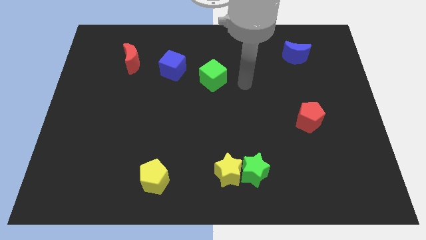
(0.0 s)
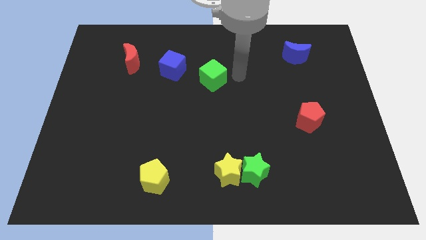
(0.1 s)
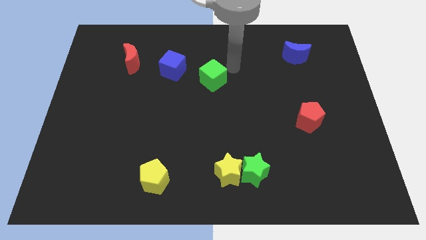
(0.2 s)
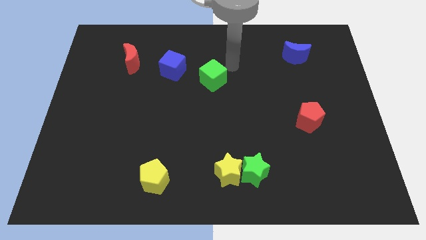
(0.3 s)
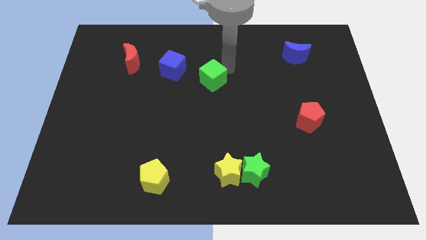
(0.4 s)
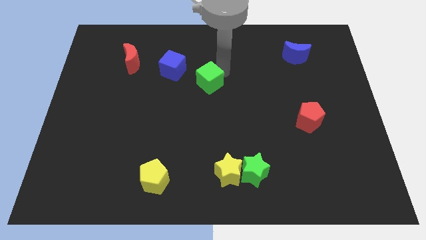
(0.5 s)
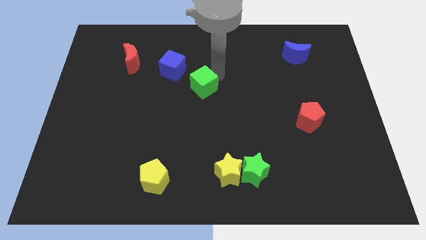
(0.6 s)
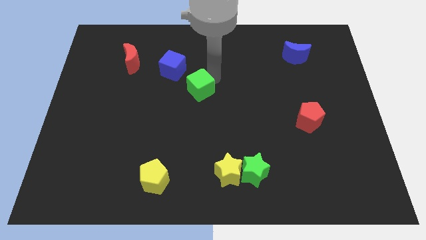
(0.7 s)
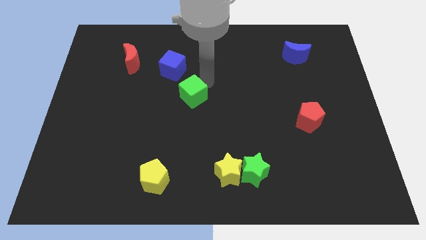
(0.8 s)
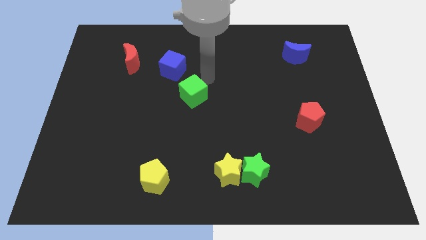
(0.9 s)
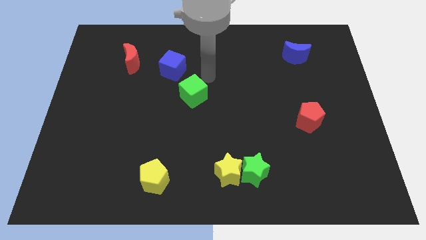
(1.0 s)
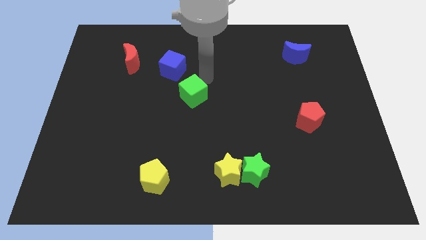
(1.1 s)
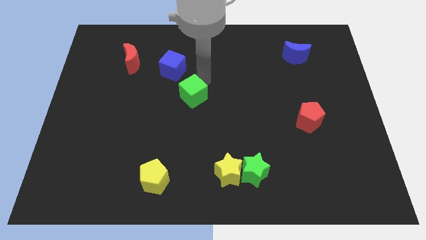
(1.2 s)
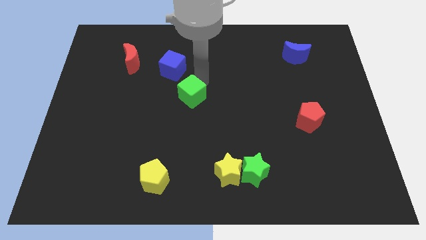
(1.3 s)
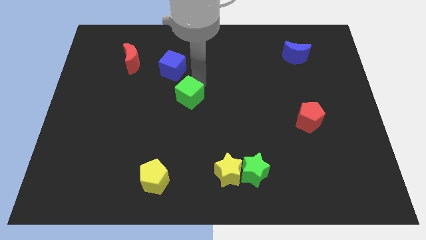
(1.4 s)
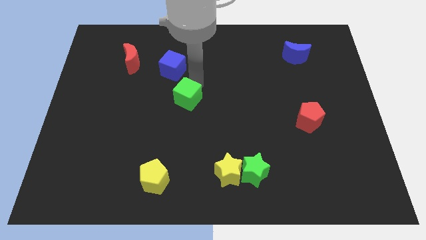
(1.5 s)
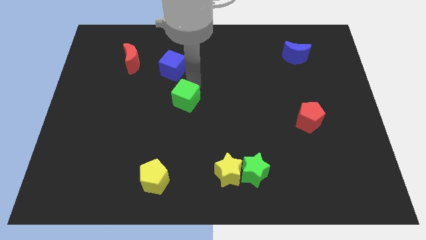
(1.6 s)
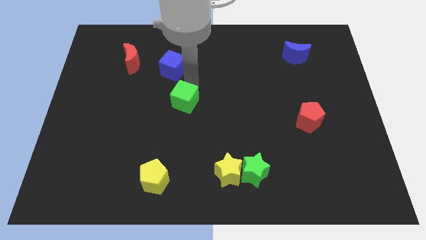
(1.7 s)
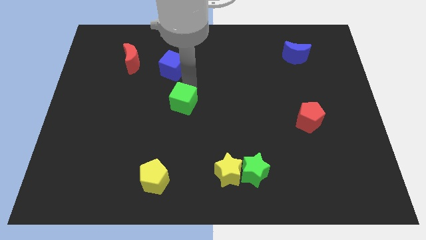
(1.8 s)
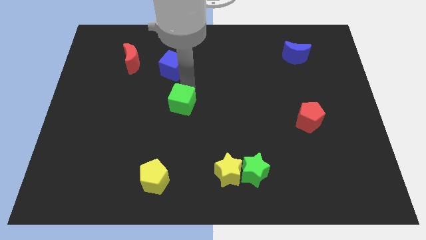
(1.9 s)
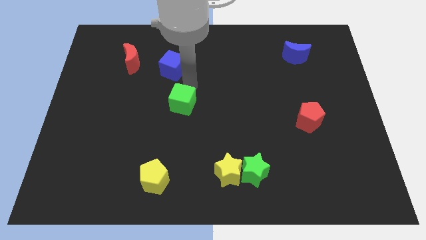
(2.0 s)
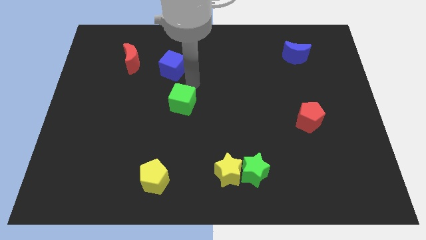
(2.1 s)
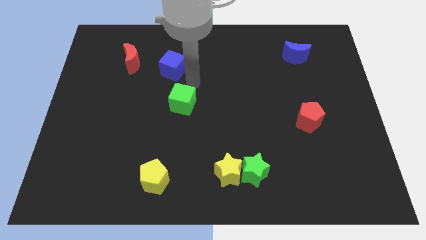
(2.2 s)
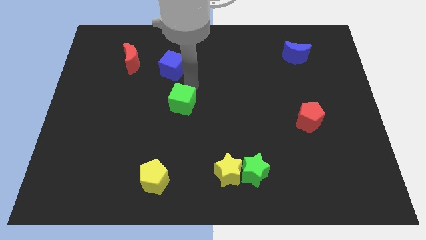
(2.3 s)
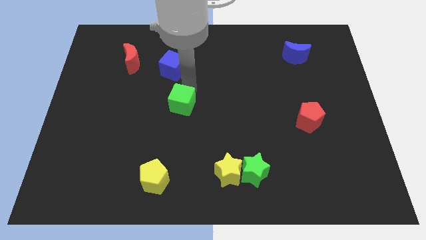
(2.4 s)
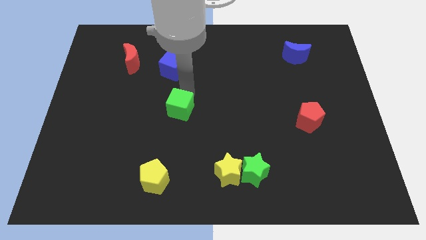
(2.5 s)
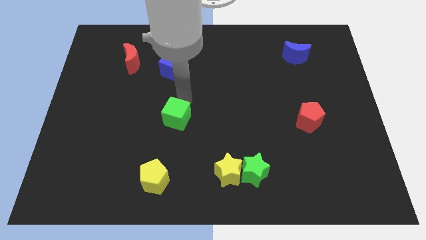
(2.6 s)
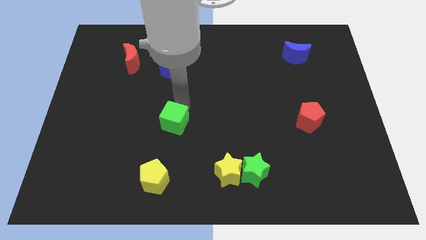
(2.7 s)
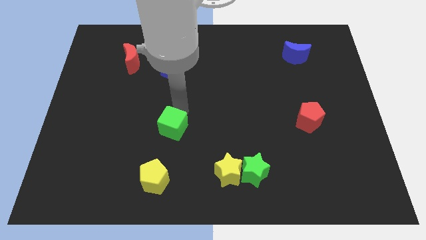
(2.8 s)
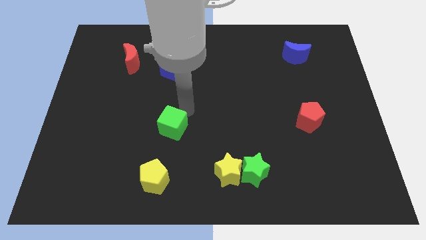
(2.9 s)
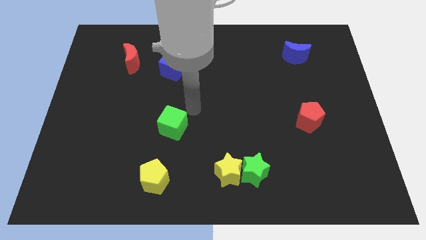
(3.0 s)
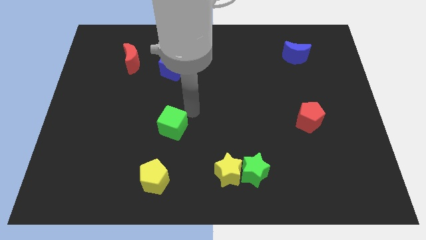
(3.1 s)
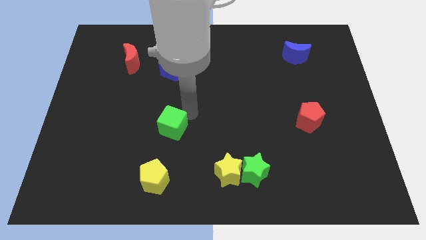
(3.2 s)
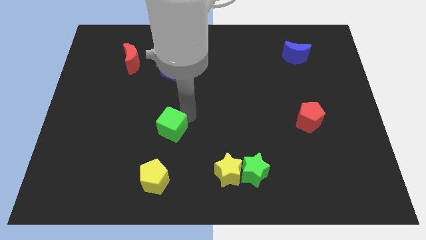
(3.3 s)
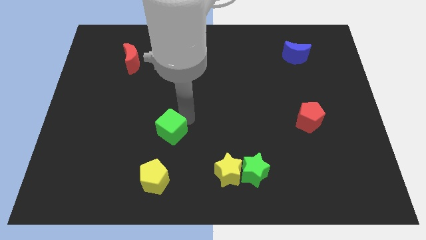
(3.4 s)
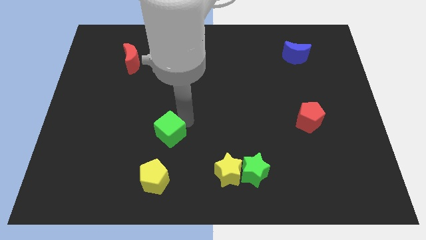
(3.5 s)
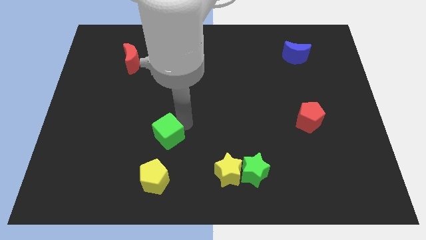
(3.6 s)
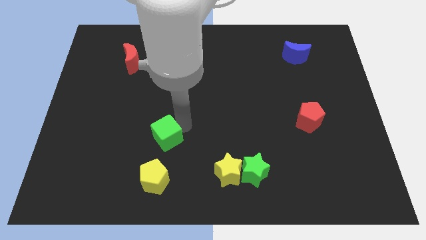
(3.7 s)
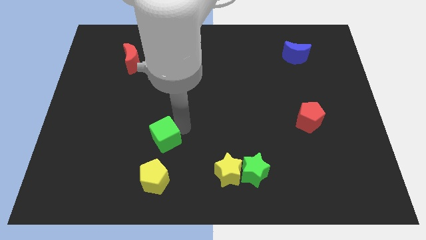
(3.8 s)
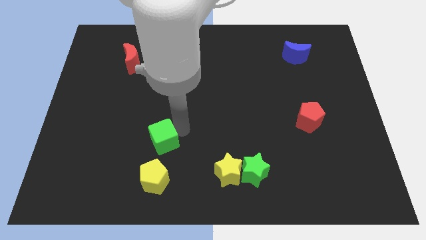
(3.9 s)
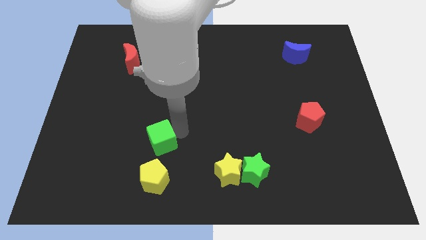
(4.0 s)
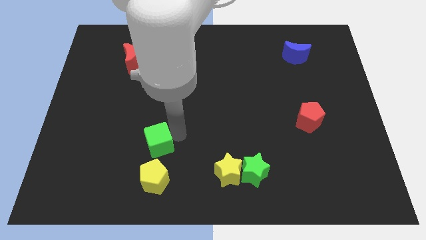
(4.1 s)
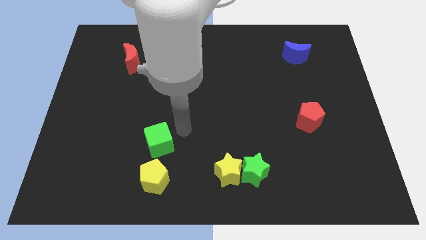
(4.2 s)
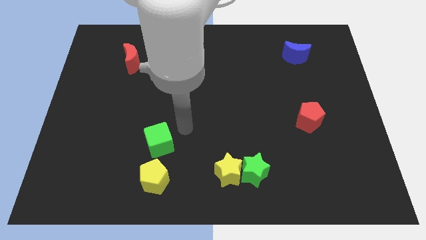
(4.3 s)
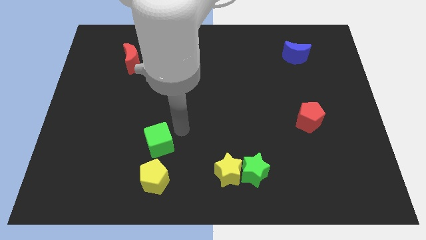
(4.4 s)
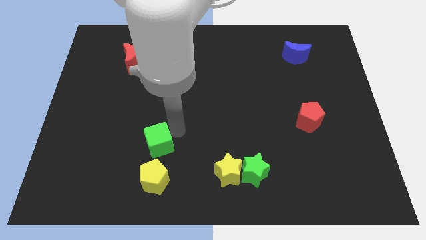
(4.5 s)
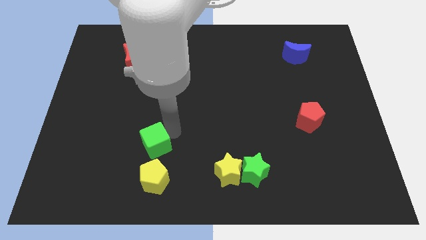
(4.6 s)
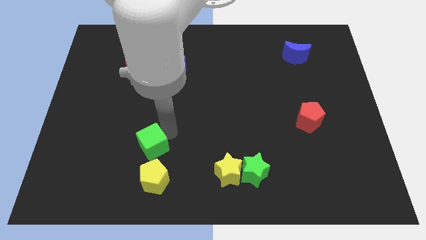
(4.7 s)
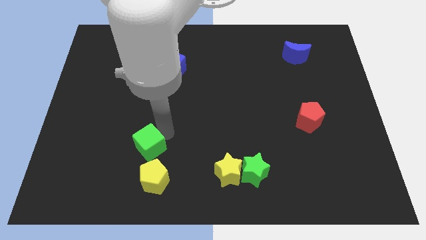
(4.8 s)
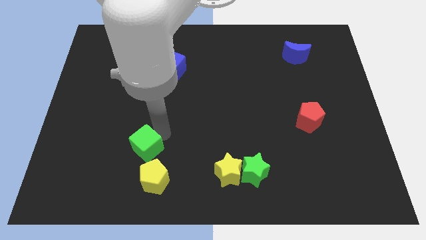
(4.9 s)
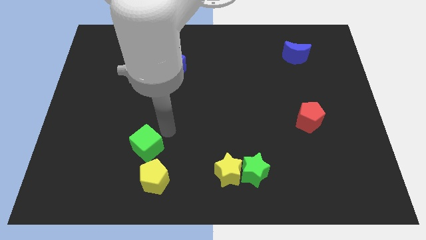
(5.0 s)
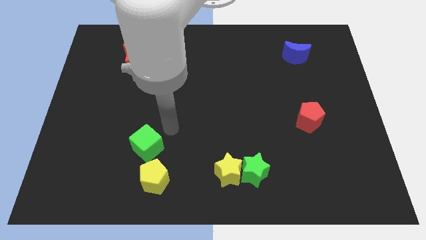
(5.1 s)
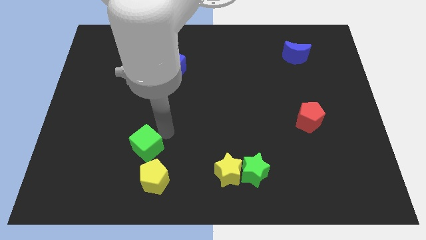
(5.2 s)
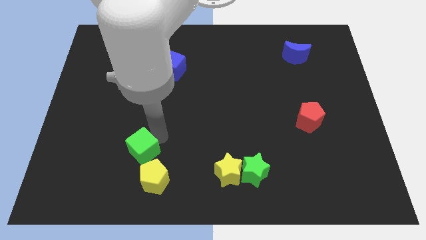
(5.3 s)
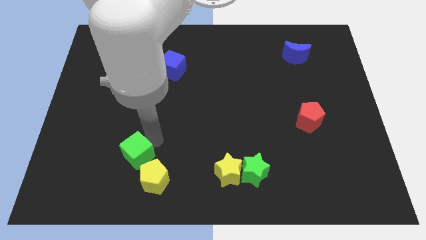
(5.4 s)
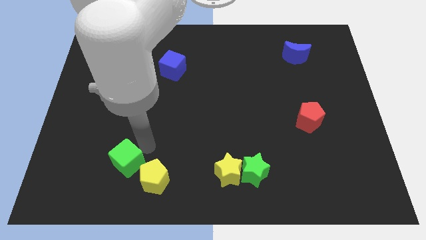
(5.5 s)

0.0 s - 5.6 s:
move the green cube left of the yellow pentagon

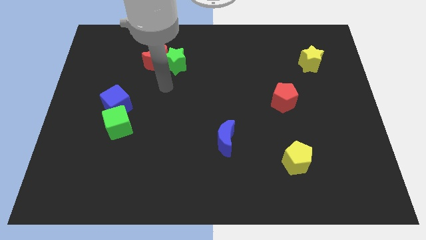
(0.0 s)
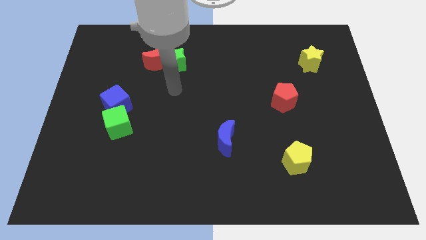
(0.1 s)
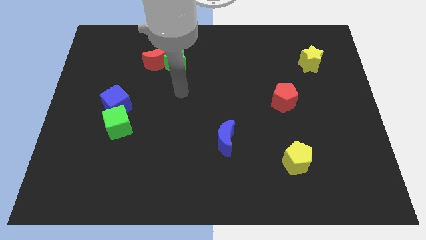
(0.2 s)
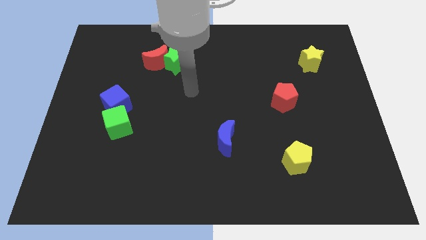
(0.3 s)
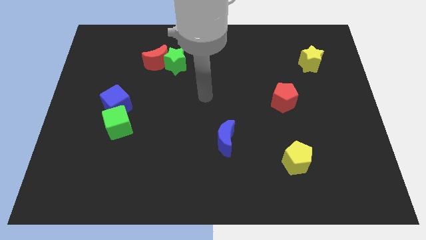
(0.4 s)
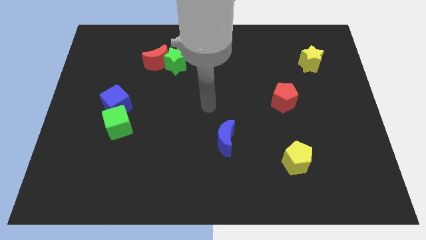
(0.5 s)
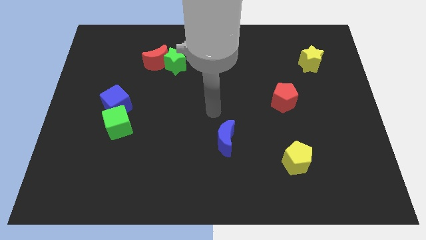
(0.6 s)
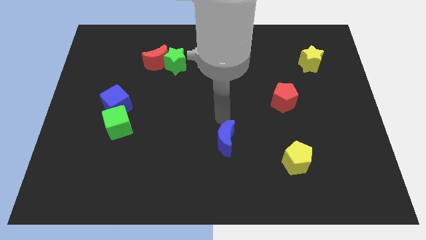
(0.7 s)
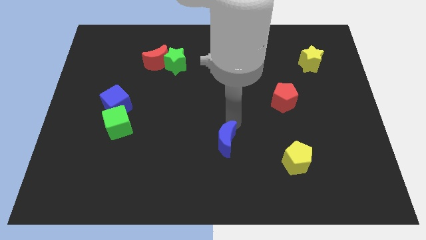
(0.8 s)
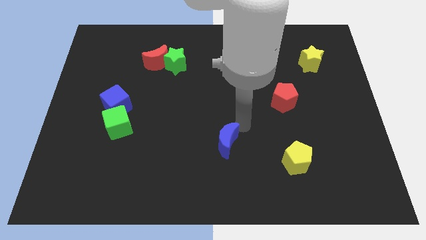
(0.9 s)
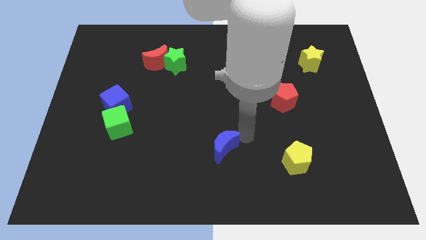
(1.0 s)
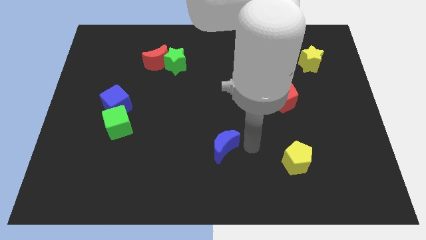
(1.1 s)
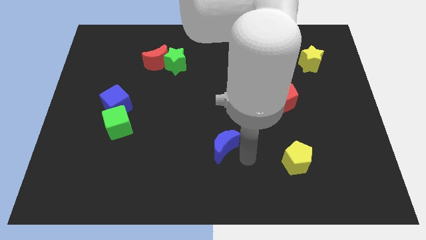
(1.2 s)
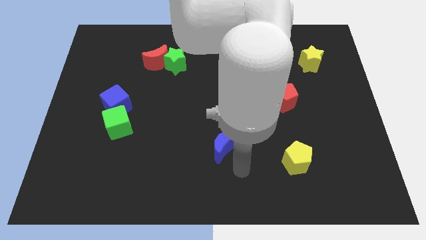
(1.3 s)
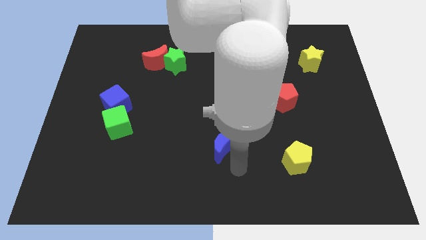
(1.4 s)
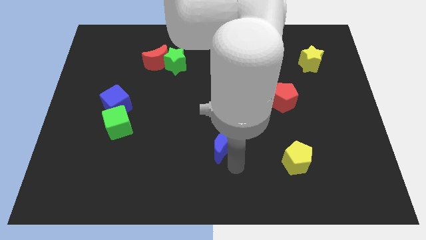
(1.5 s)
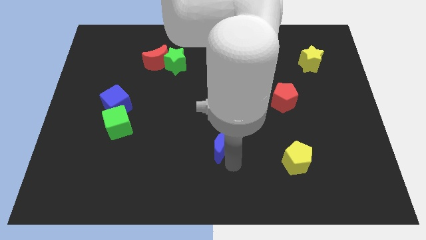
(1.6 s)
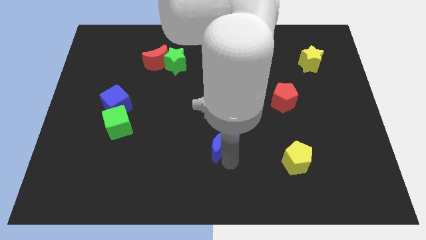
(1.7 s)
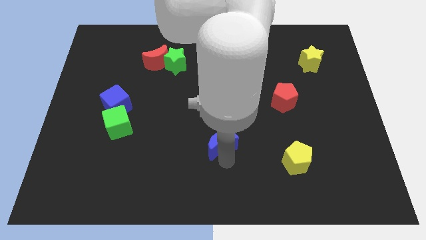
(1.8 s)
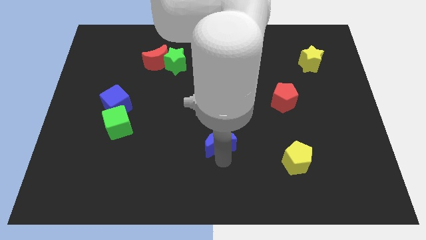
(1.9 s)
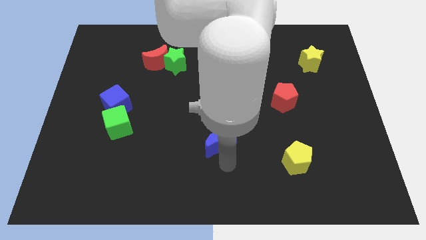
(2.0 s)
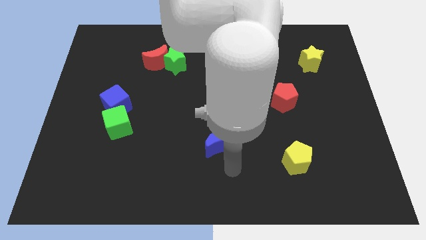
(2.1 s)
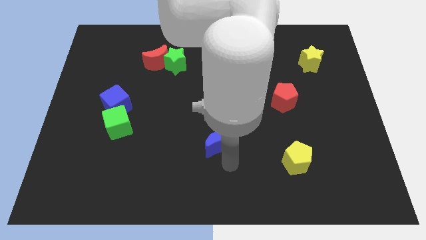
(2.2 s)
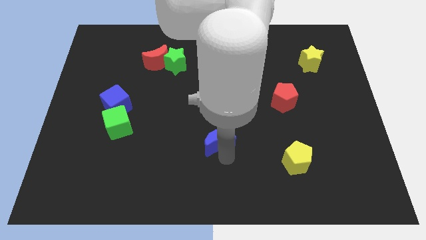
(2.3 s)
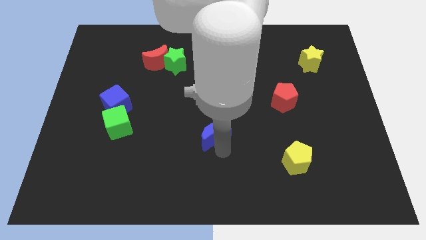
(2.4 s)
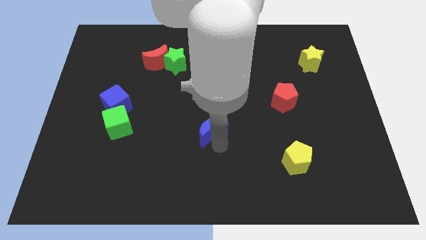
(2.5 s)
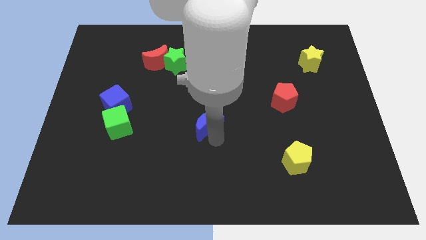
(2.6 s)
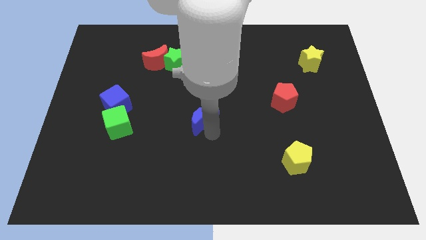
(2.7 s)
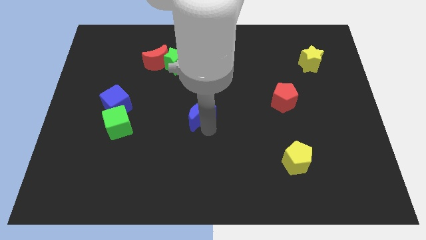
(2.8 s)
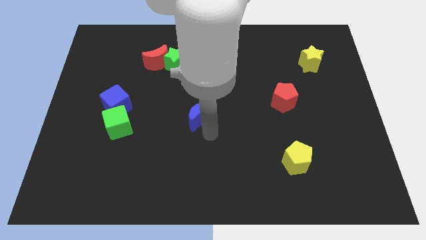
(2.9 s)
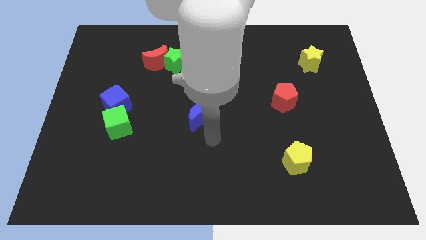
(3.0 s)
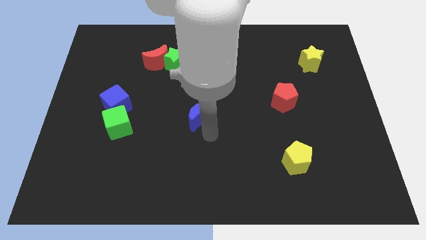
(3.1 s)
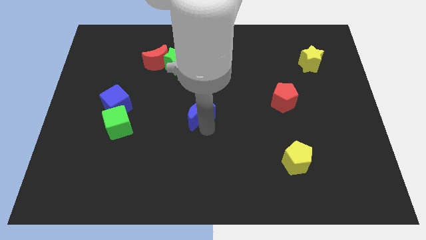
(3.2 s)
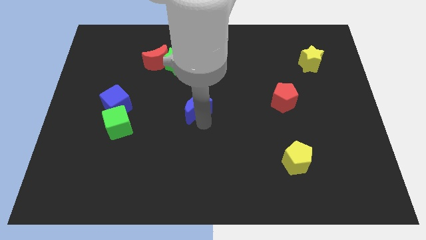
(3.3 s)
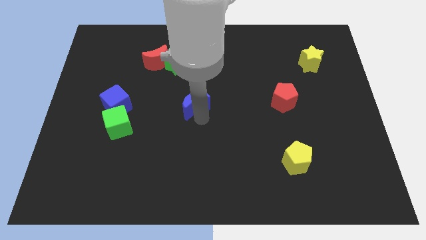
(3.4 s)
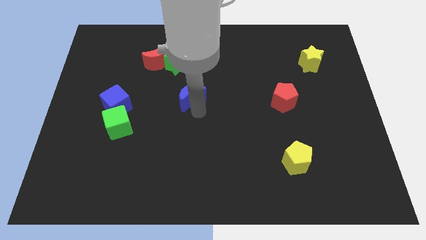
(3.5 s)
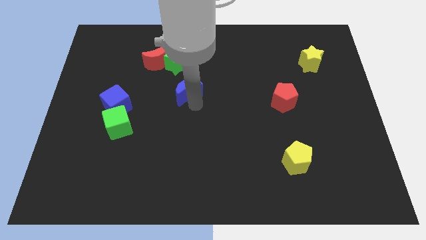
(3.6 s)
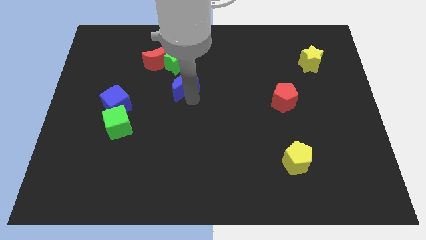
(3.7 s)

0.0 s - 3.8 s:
put the blue moon to the bottom right side of the red moon
